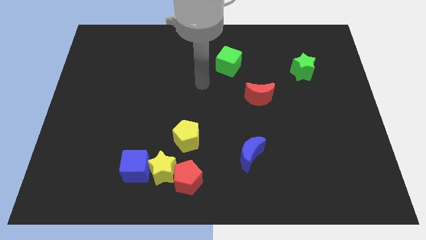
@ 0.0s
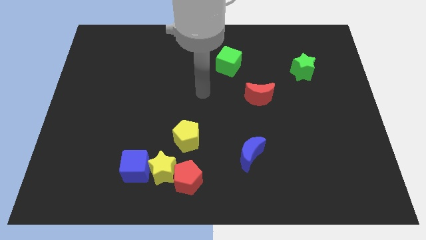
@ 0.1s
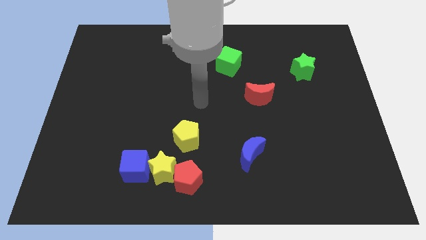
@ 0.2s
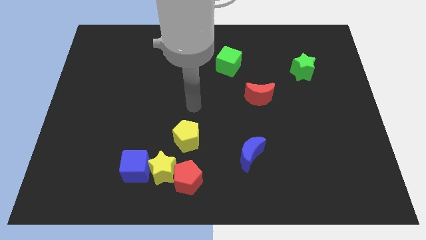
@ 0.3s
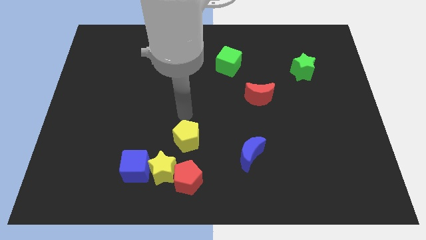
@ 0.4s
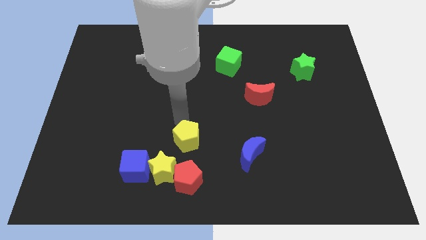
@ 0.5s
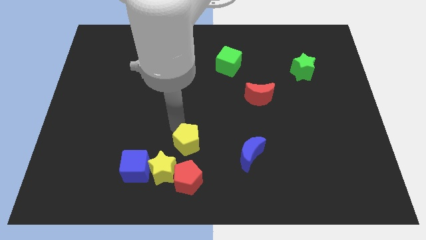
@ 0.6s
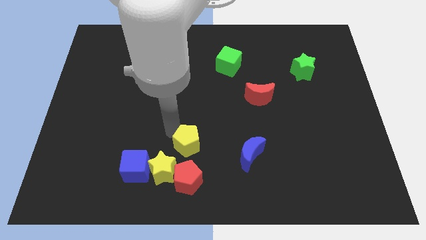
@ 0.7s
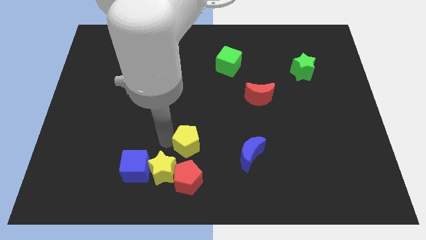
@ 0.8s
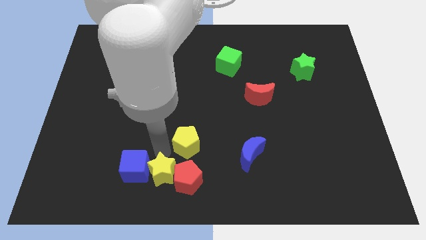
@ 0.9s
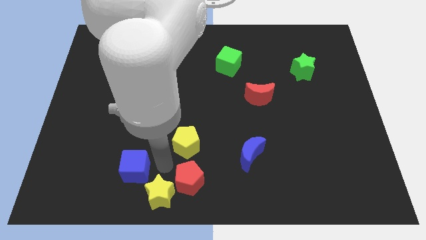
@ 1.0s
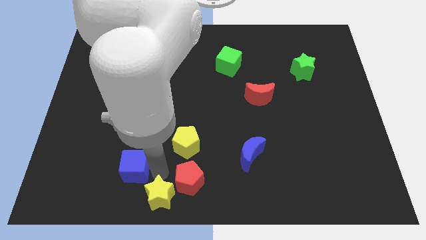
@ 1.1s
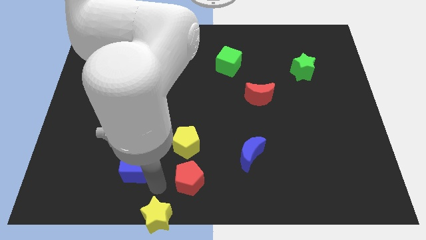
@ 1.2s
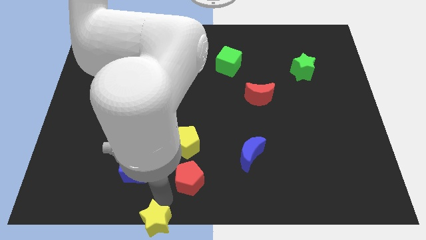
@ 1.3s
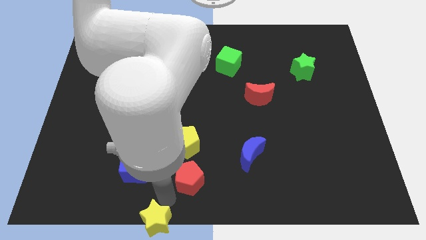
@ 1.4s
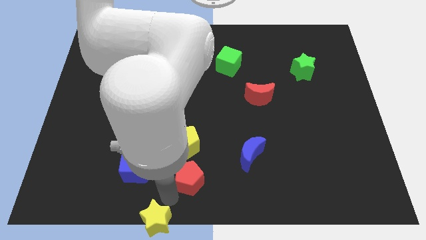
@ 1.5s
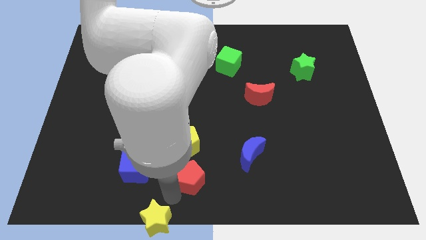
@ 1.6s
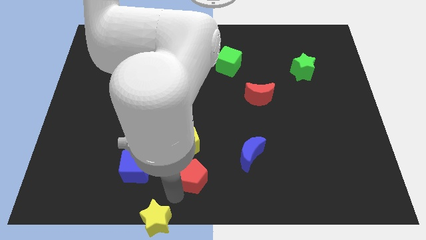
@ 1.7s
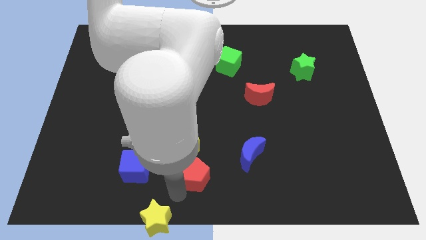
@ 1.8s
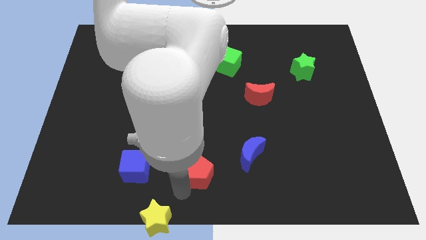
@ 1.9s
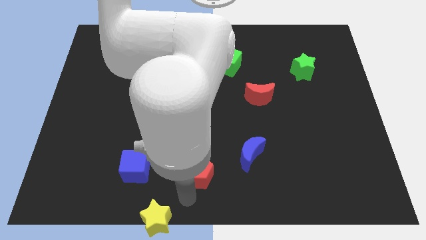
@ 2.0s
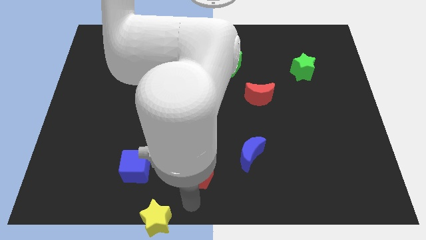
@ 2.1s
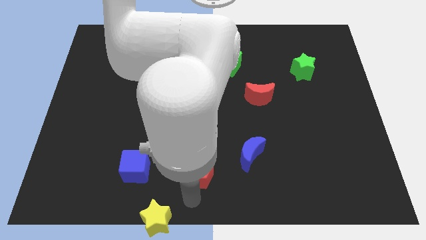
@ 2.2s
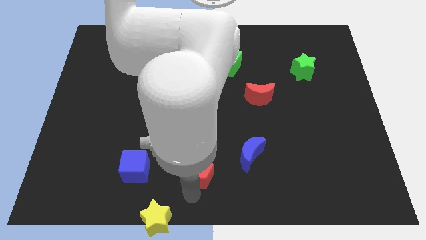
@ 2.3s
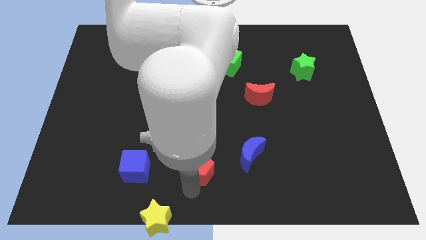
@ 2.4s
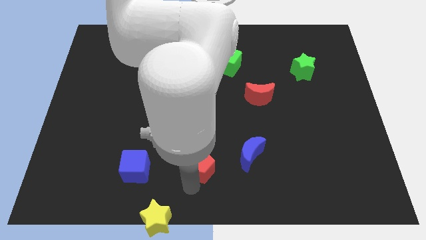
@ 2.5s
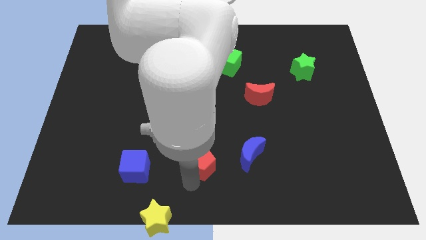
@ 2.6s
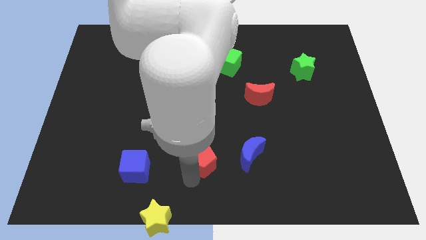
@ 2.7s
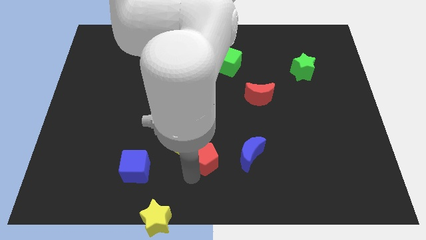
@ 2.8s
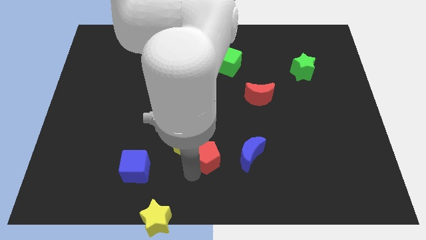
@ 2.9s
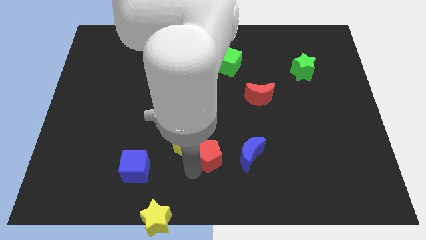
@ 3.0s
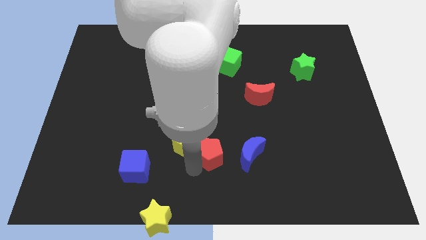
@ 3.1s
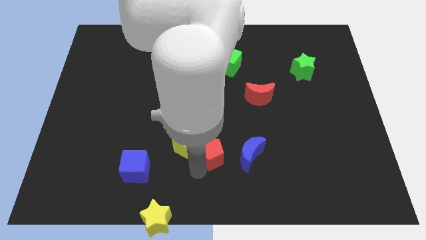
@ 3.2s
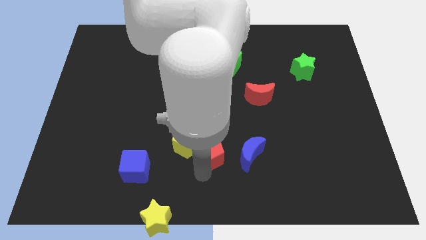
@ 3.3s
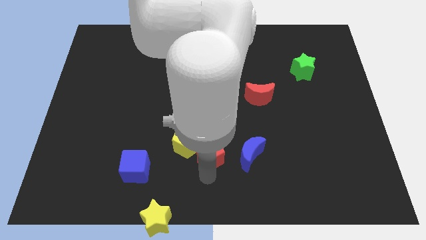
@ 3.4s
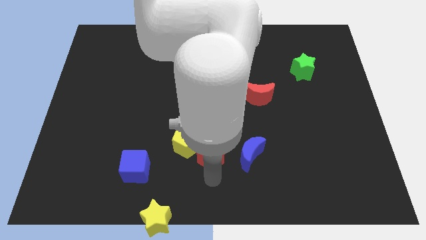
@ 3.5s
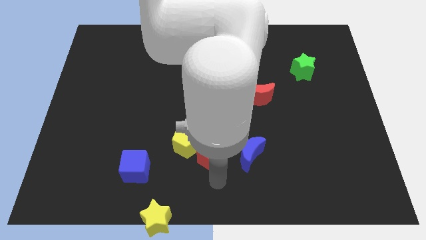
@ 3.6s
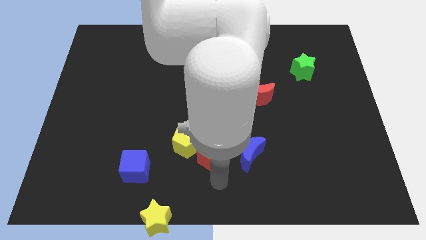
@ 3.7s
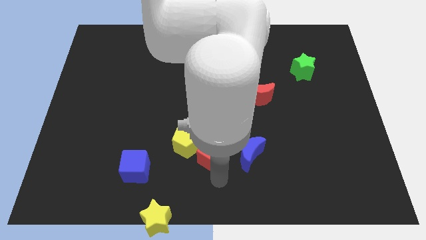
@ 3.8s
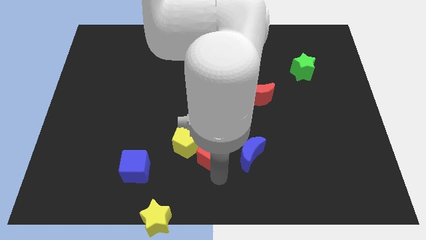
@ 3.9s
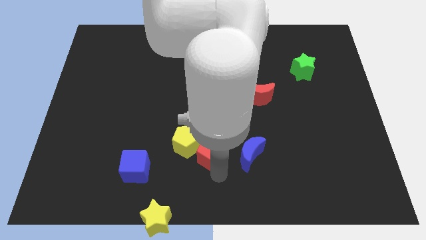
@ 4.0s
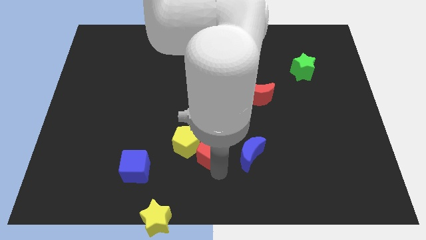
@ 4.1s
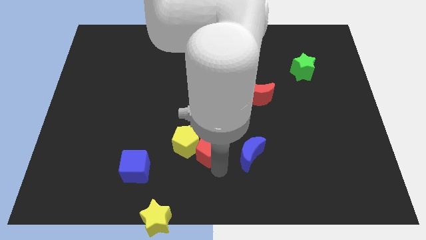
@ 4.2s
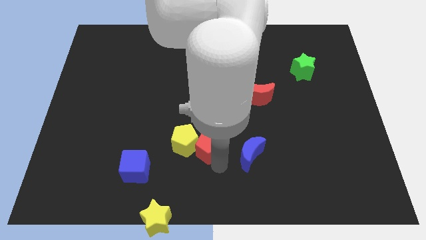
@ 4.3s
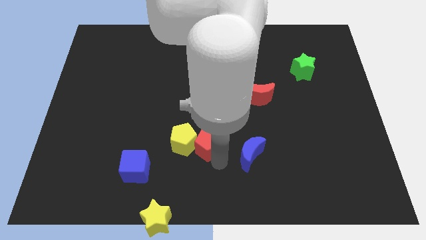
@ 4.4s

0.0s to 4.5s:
move the red pentagon up a little

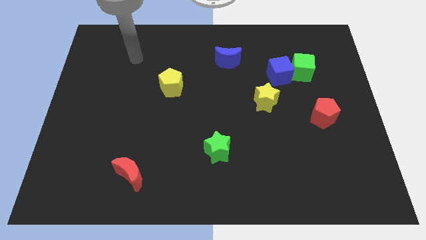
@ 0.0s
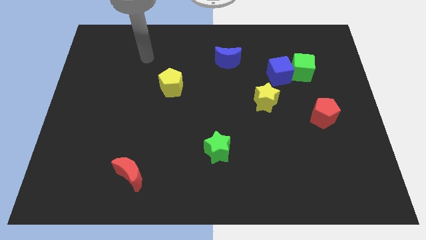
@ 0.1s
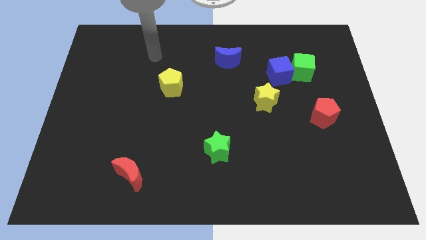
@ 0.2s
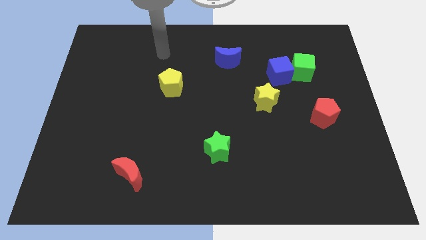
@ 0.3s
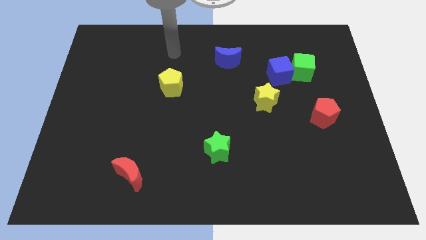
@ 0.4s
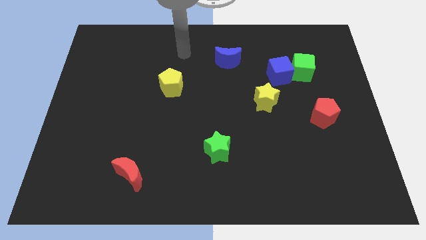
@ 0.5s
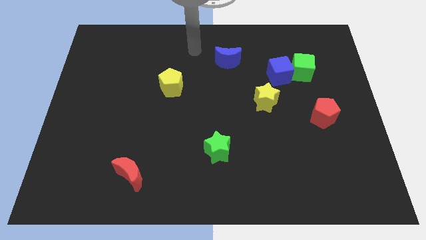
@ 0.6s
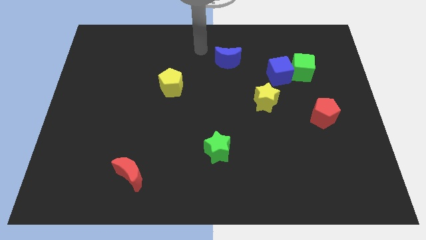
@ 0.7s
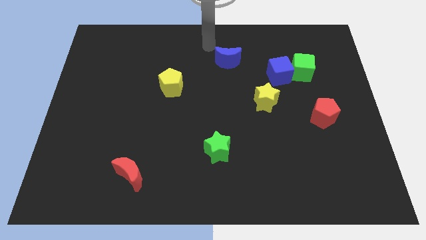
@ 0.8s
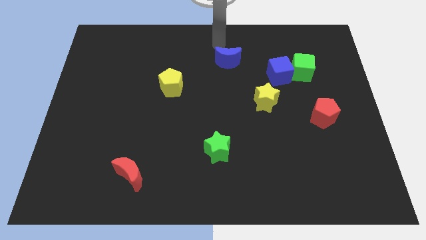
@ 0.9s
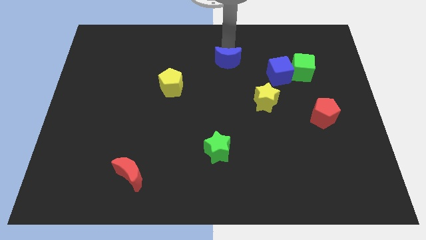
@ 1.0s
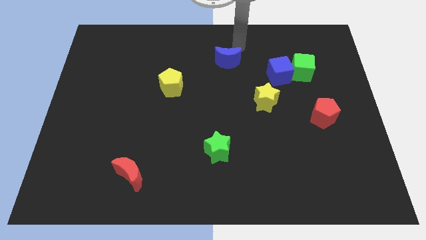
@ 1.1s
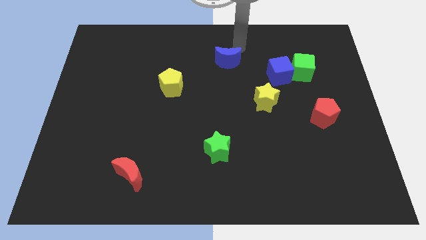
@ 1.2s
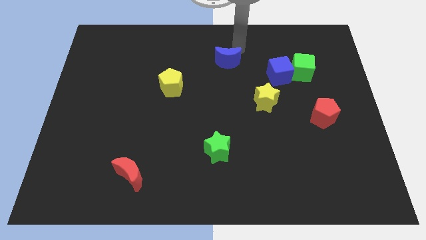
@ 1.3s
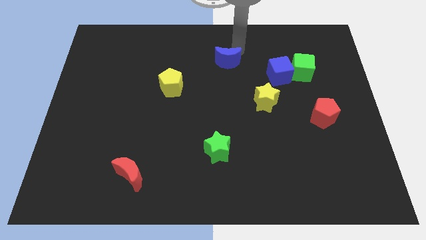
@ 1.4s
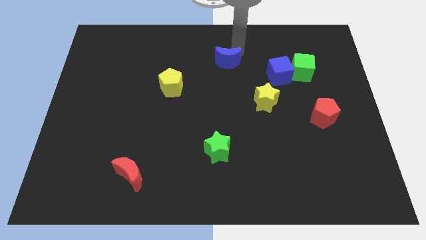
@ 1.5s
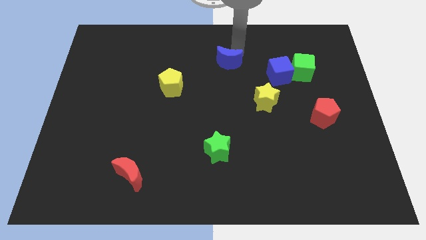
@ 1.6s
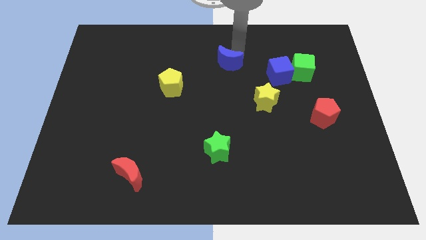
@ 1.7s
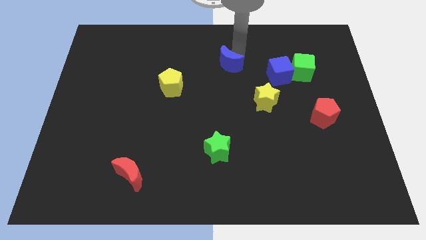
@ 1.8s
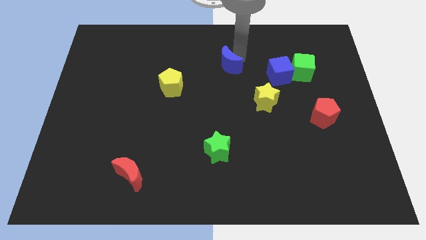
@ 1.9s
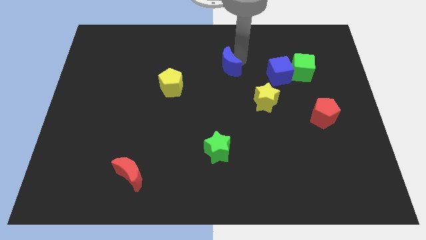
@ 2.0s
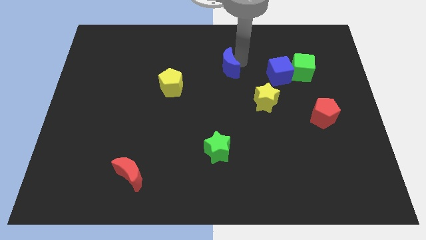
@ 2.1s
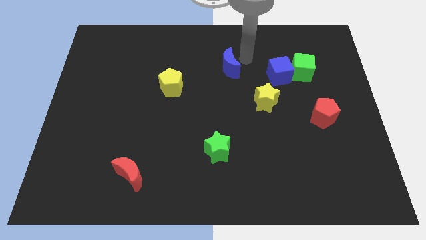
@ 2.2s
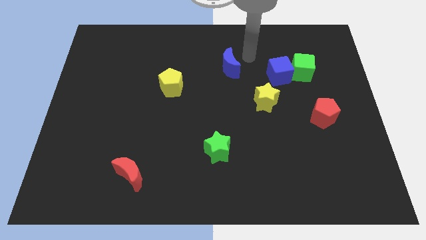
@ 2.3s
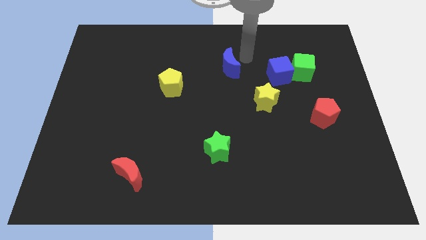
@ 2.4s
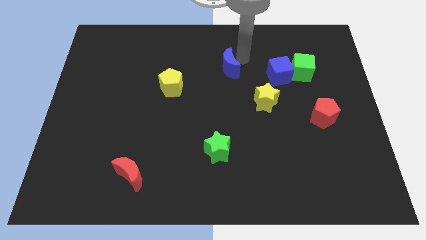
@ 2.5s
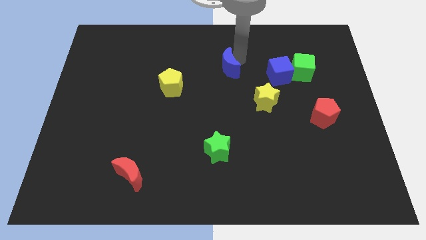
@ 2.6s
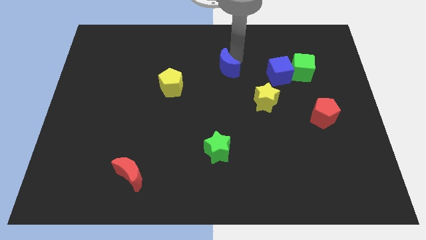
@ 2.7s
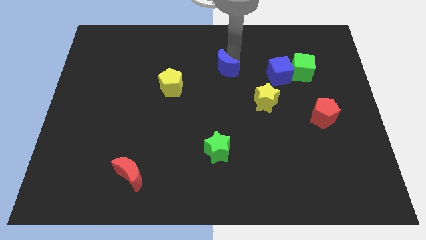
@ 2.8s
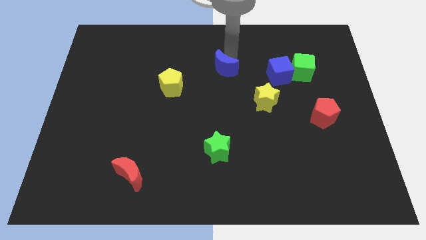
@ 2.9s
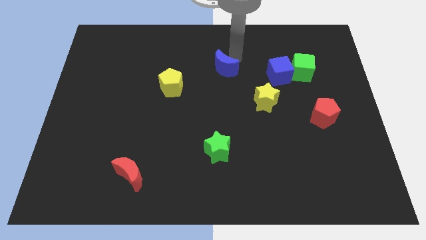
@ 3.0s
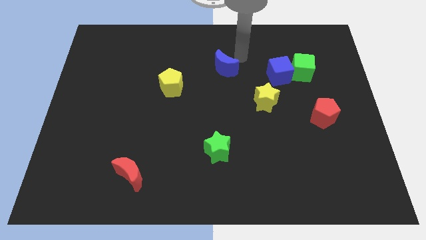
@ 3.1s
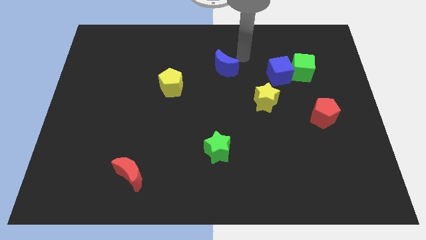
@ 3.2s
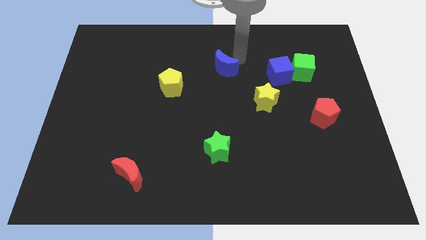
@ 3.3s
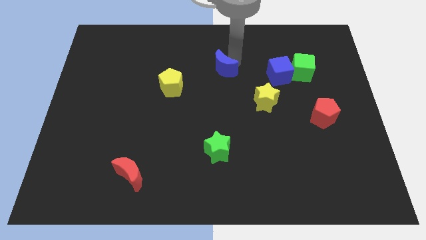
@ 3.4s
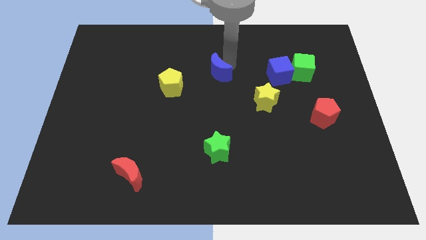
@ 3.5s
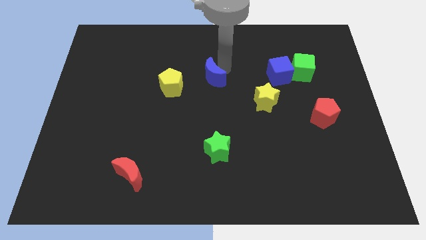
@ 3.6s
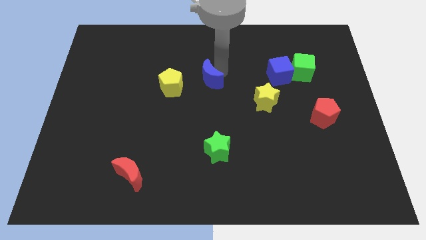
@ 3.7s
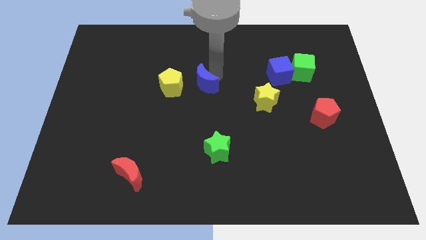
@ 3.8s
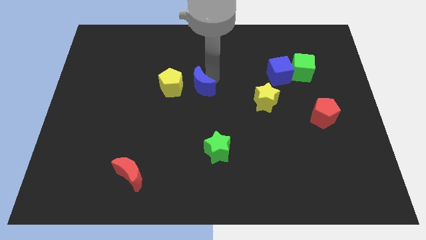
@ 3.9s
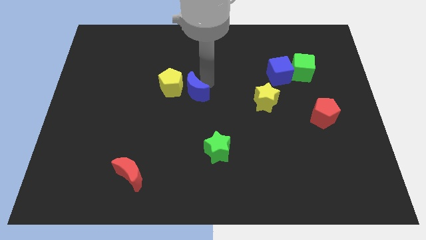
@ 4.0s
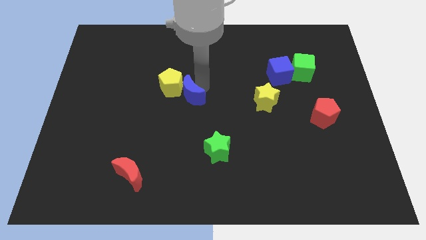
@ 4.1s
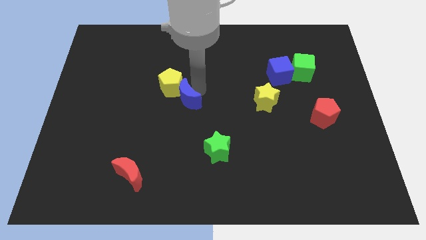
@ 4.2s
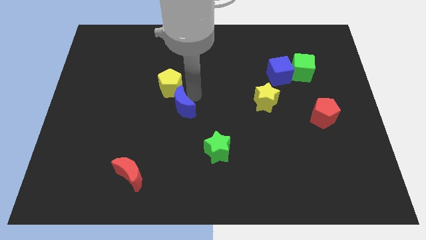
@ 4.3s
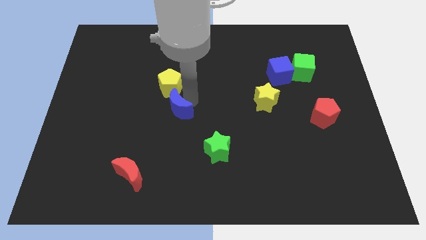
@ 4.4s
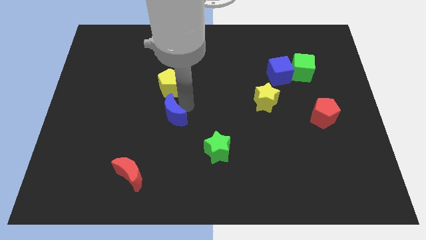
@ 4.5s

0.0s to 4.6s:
slide the blue moon down and left diagonally
